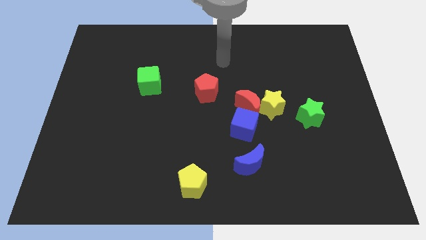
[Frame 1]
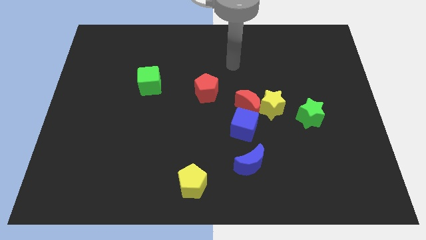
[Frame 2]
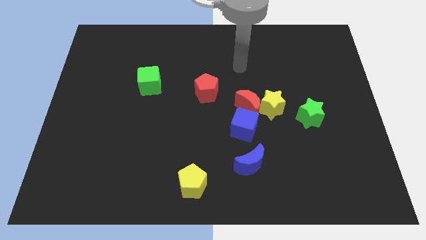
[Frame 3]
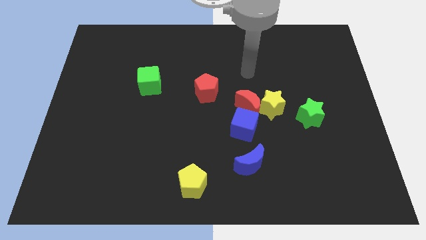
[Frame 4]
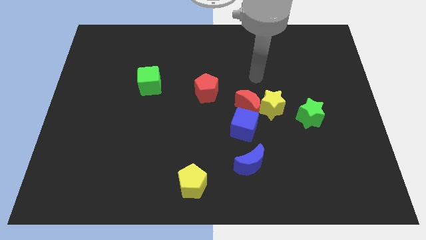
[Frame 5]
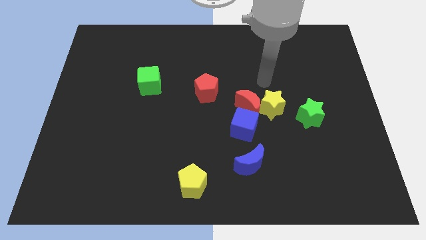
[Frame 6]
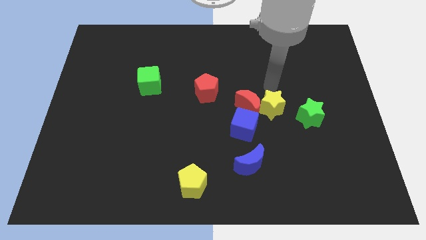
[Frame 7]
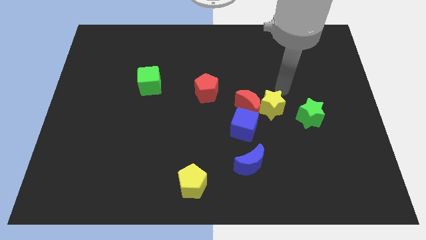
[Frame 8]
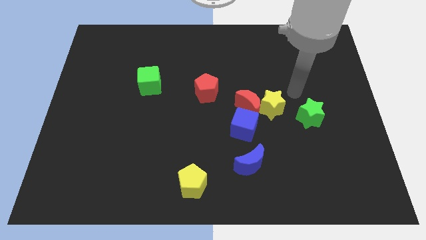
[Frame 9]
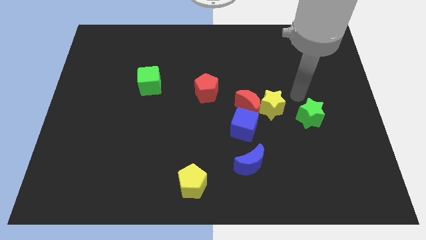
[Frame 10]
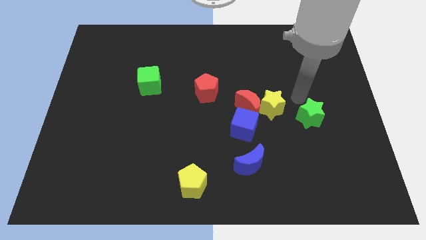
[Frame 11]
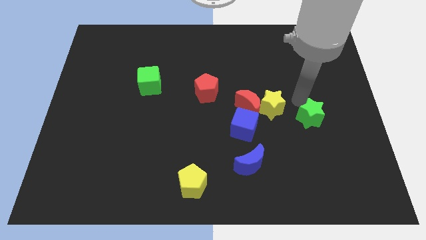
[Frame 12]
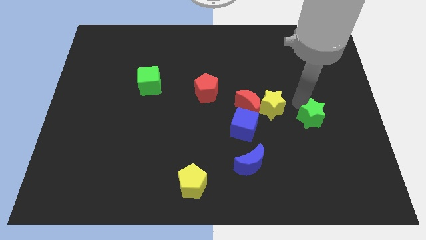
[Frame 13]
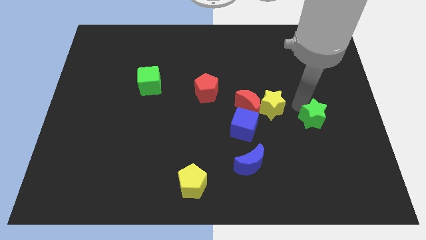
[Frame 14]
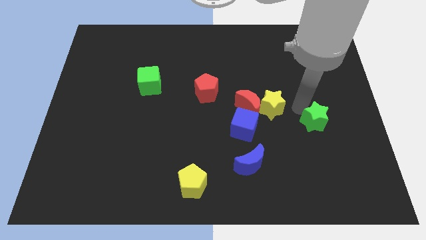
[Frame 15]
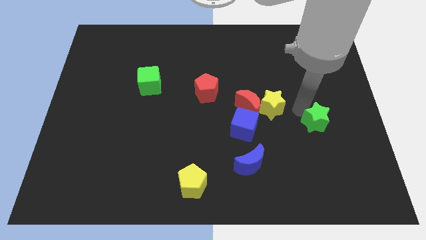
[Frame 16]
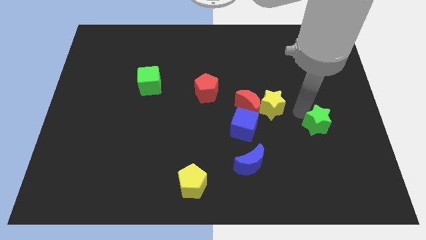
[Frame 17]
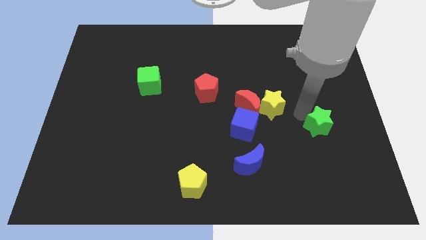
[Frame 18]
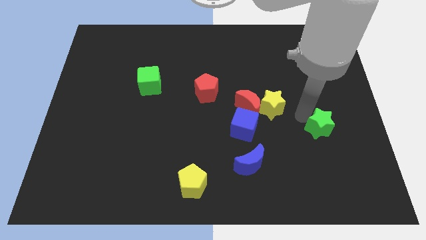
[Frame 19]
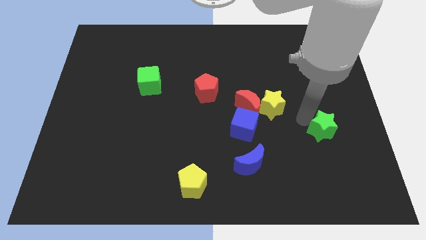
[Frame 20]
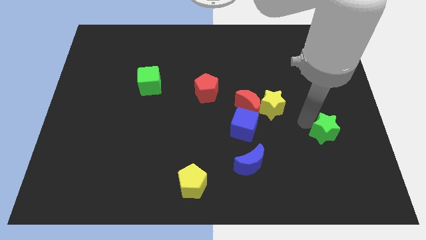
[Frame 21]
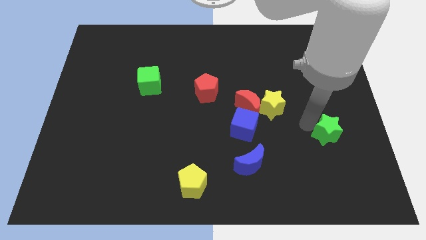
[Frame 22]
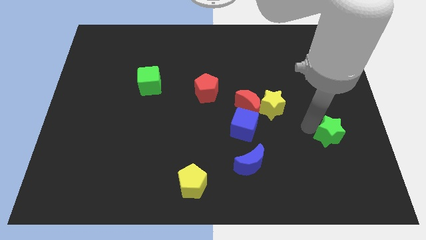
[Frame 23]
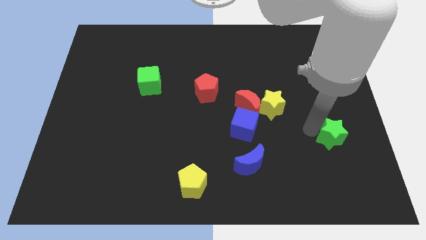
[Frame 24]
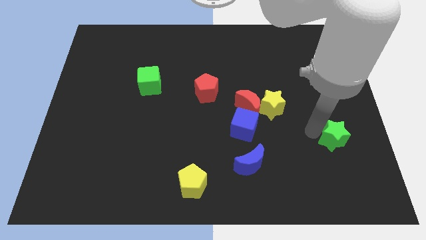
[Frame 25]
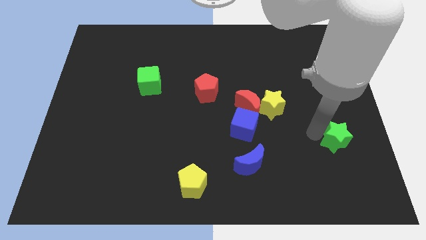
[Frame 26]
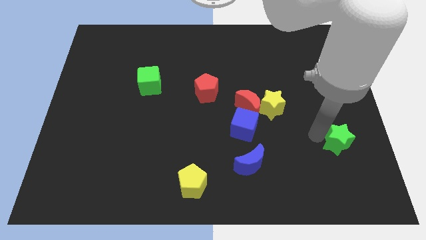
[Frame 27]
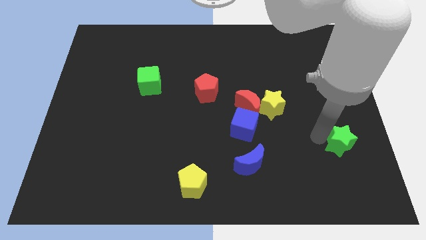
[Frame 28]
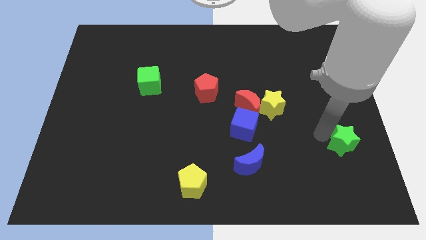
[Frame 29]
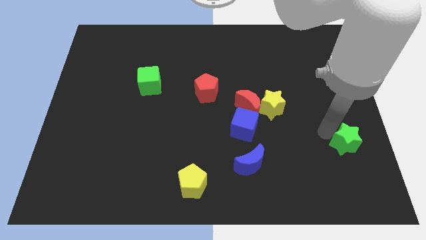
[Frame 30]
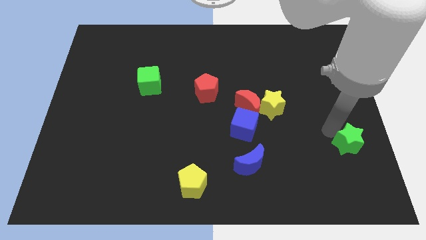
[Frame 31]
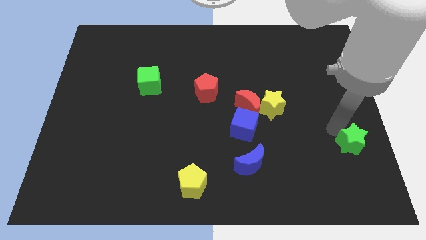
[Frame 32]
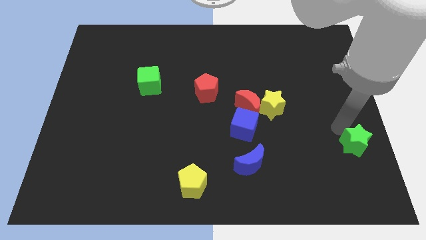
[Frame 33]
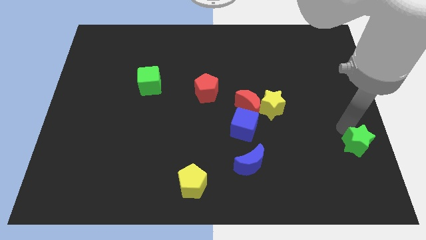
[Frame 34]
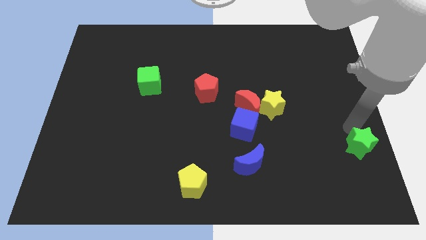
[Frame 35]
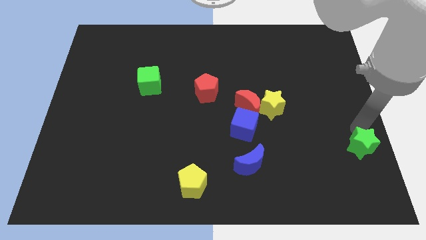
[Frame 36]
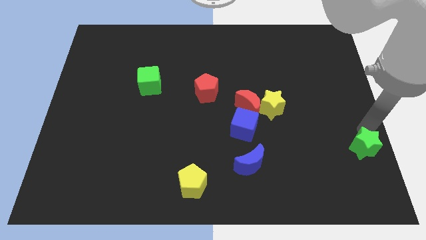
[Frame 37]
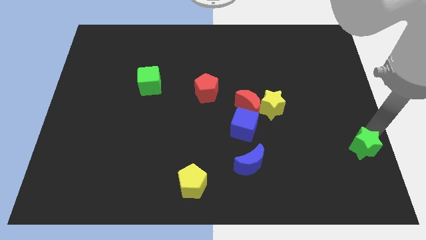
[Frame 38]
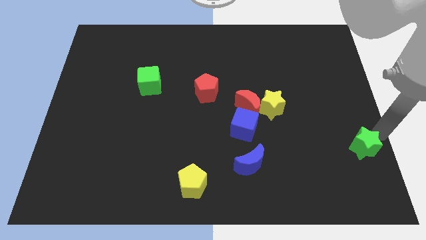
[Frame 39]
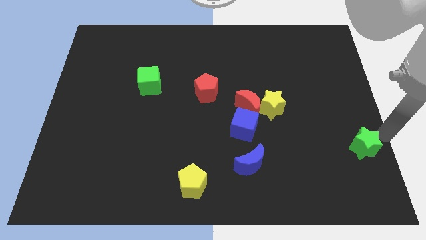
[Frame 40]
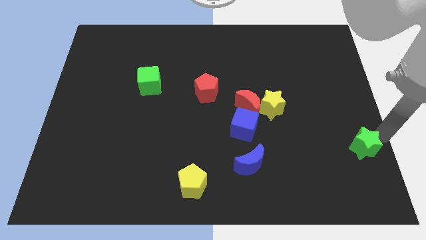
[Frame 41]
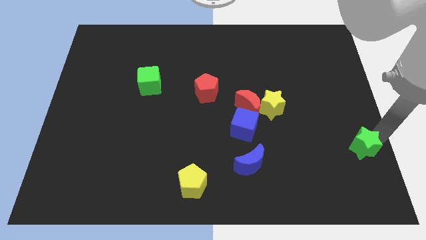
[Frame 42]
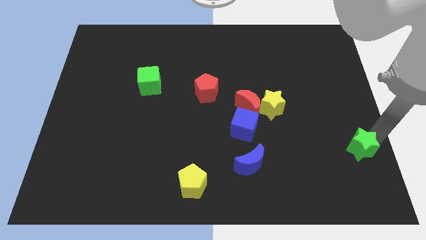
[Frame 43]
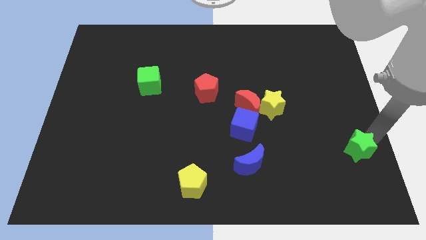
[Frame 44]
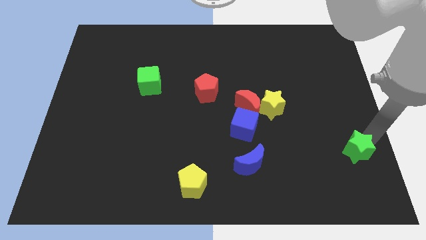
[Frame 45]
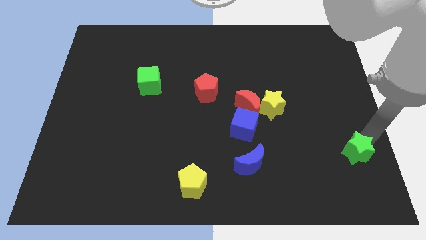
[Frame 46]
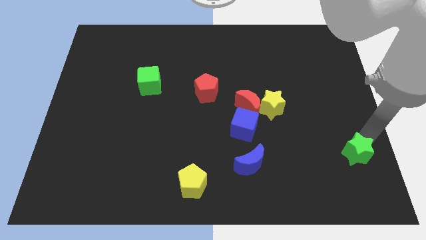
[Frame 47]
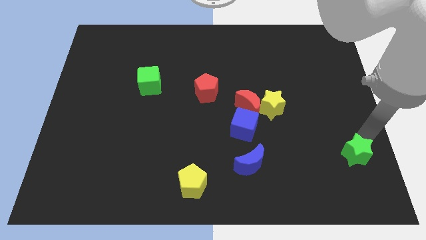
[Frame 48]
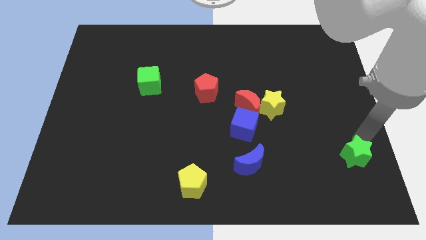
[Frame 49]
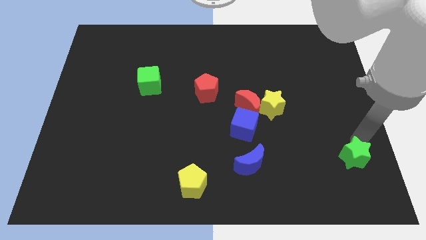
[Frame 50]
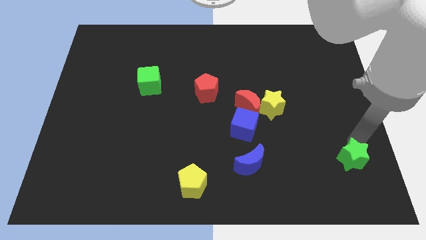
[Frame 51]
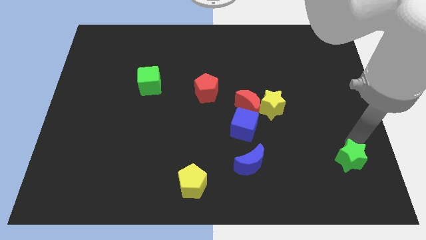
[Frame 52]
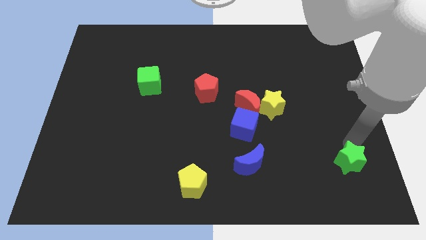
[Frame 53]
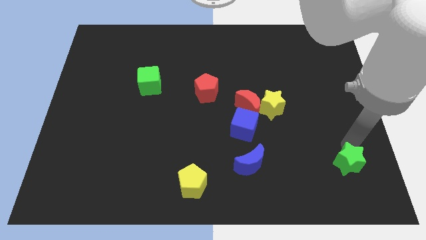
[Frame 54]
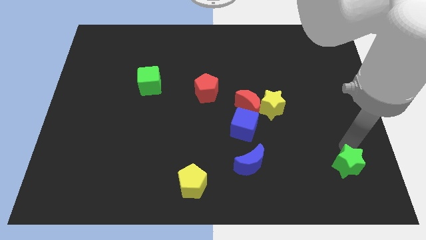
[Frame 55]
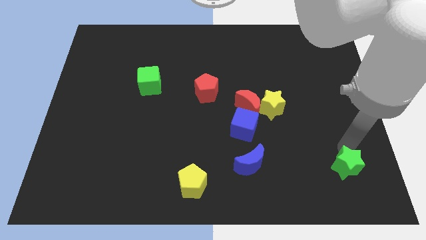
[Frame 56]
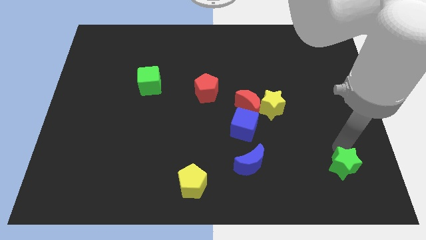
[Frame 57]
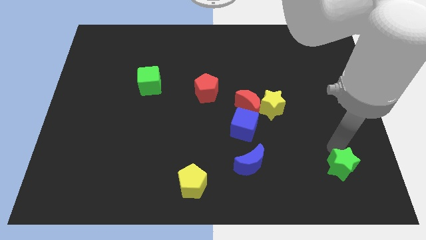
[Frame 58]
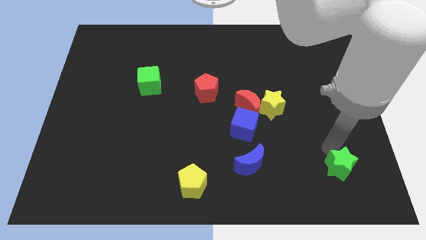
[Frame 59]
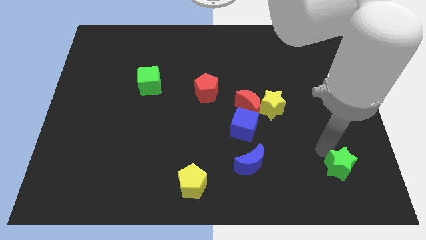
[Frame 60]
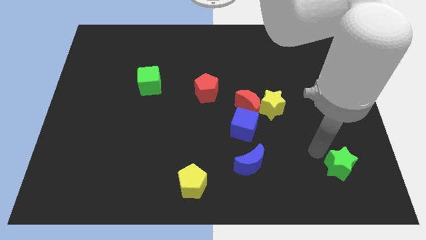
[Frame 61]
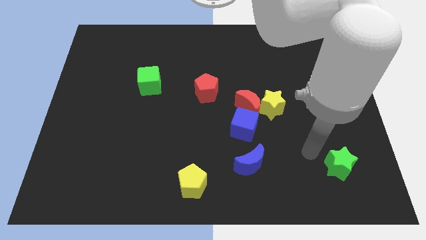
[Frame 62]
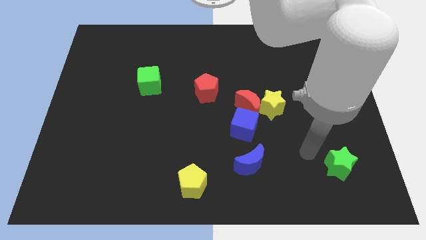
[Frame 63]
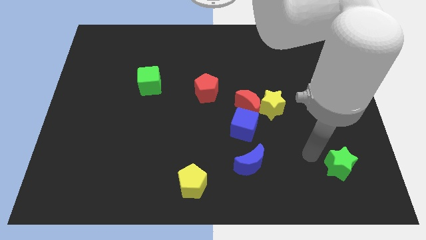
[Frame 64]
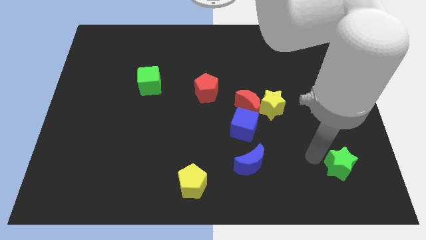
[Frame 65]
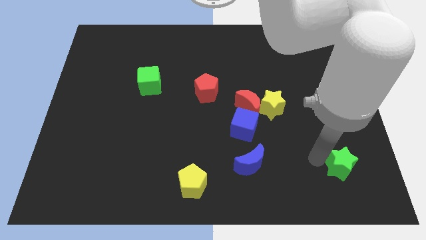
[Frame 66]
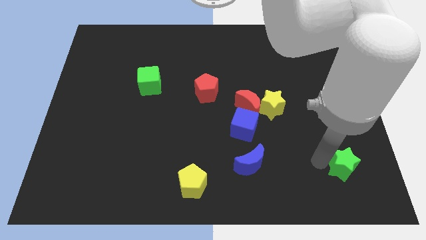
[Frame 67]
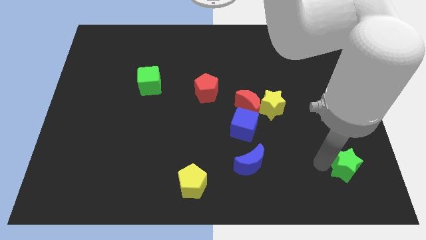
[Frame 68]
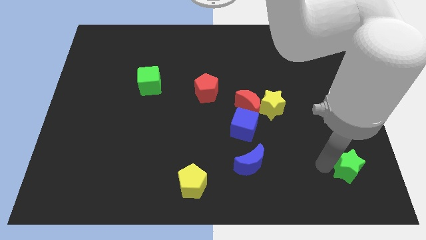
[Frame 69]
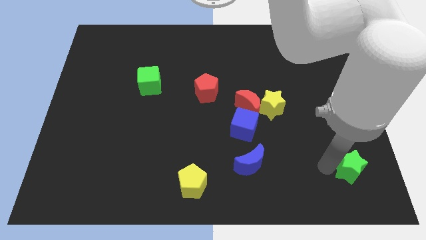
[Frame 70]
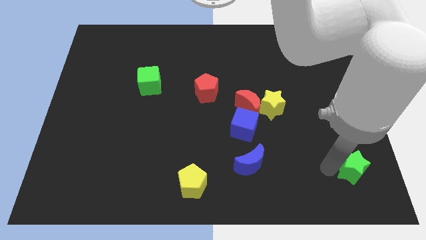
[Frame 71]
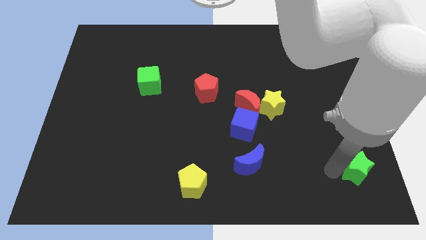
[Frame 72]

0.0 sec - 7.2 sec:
slide the green star to the bottom right of the board
